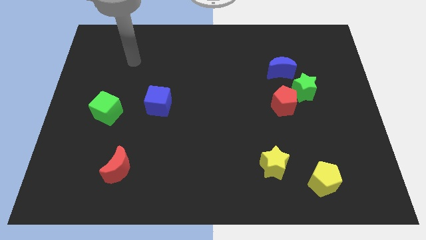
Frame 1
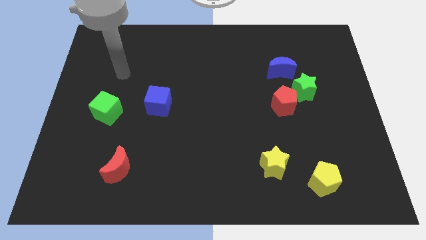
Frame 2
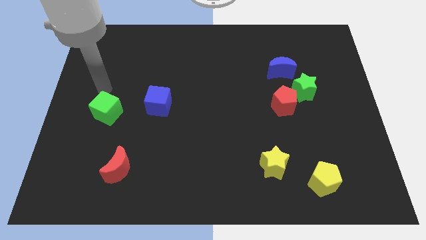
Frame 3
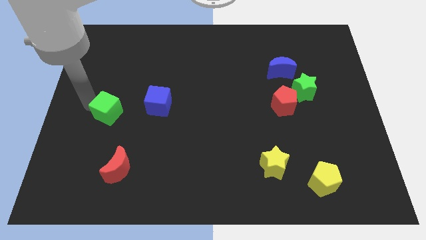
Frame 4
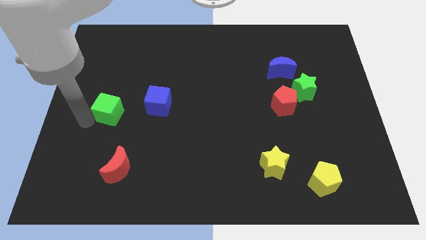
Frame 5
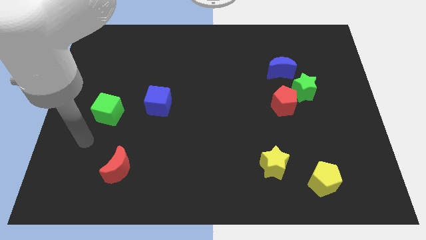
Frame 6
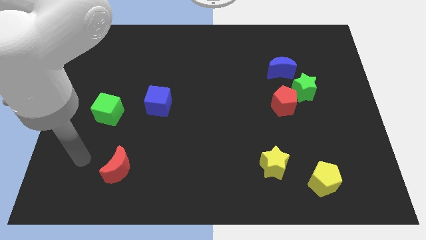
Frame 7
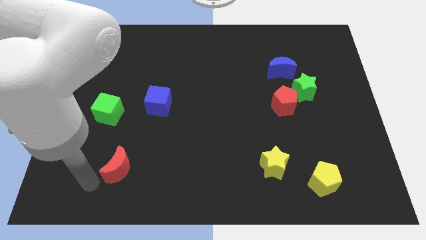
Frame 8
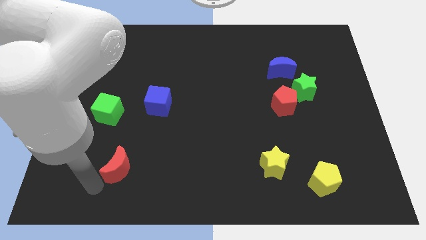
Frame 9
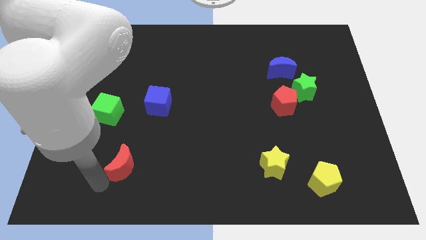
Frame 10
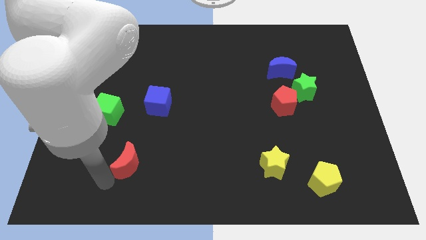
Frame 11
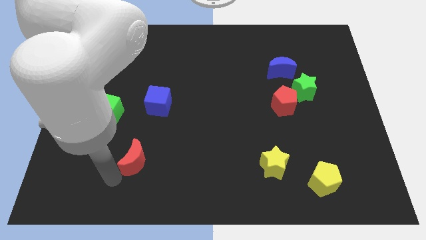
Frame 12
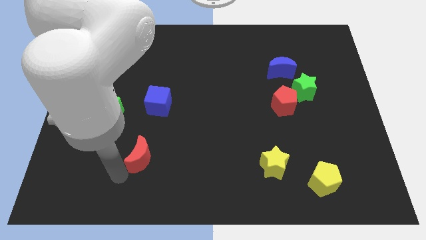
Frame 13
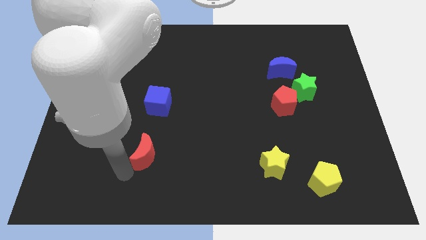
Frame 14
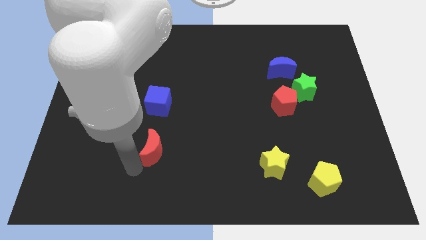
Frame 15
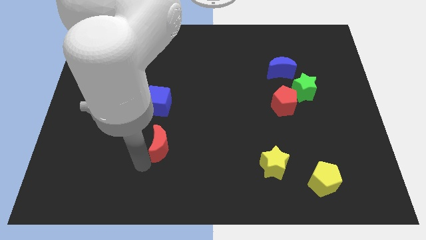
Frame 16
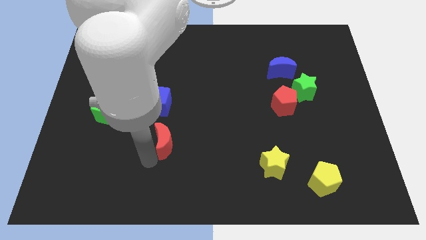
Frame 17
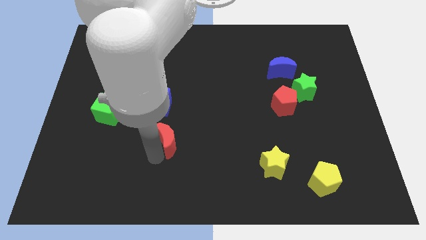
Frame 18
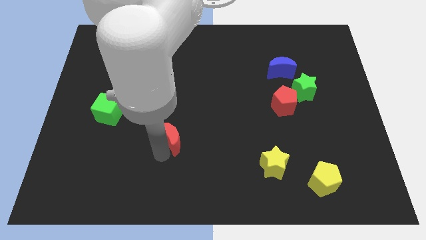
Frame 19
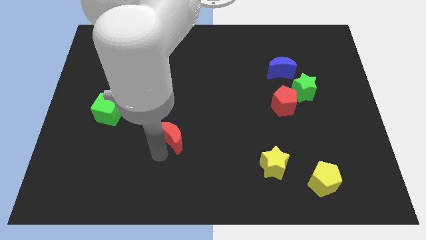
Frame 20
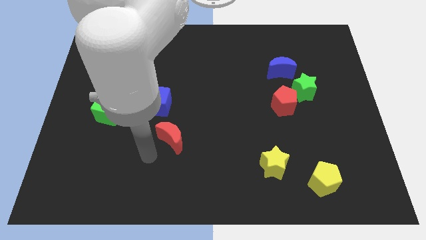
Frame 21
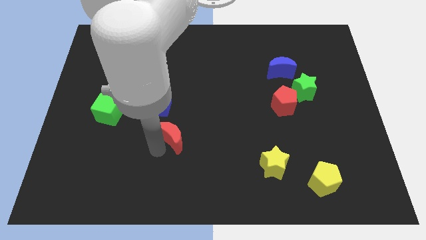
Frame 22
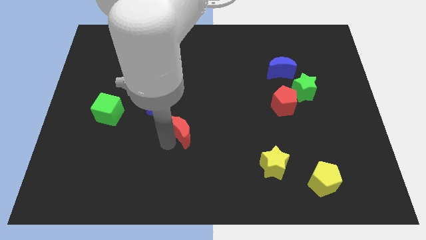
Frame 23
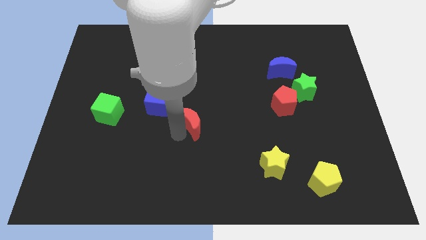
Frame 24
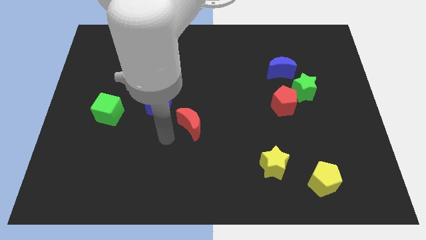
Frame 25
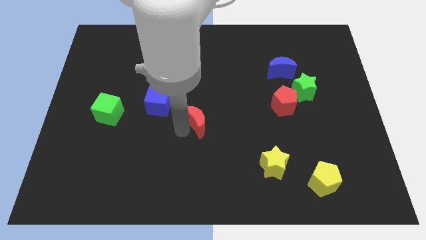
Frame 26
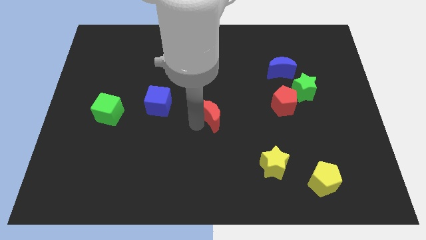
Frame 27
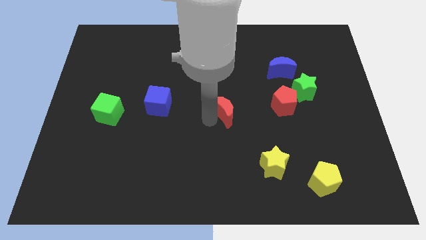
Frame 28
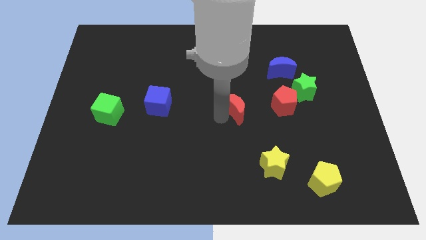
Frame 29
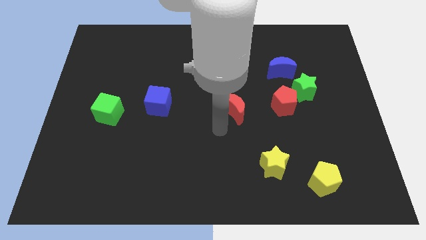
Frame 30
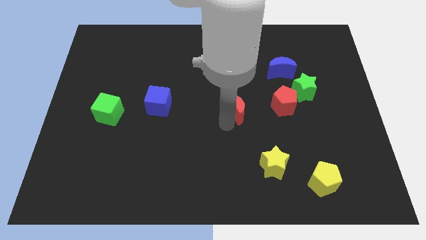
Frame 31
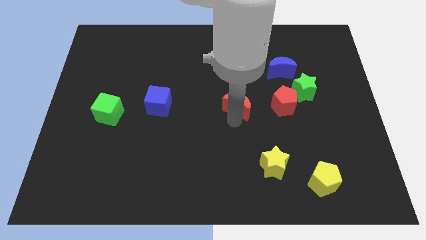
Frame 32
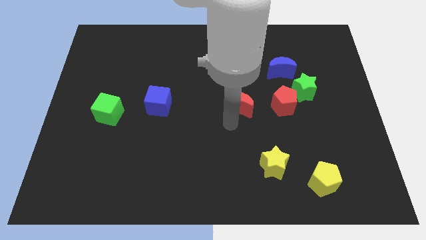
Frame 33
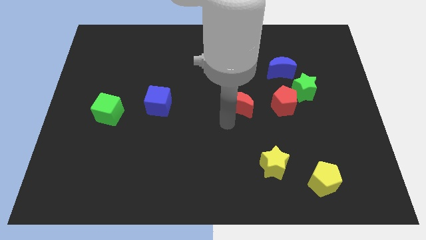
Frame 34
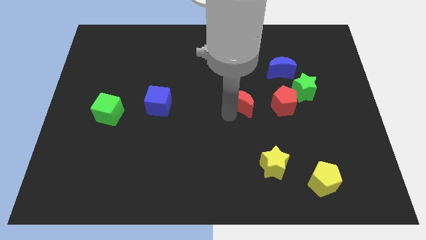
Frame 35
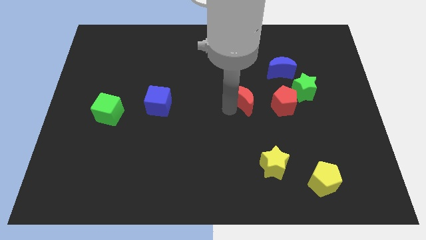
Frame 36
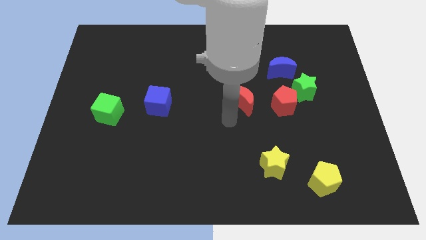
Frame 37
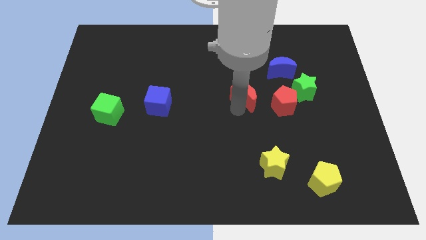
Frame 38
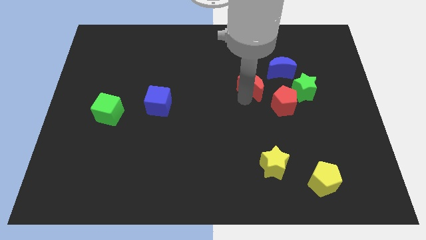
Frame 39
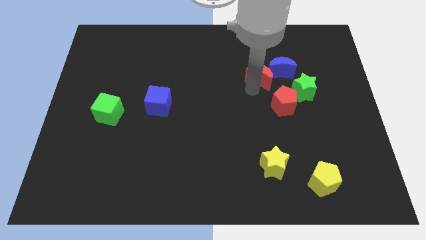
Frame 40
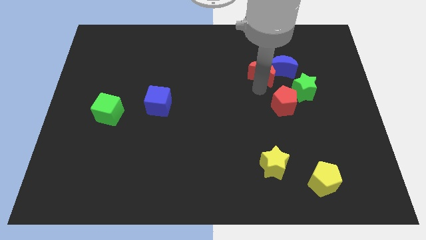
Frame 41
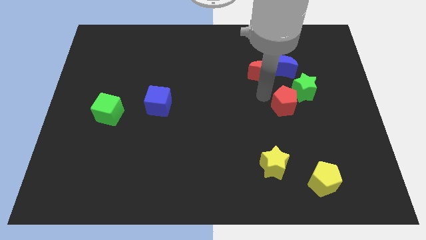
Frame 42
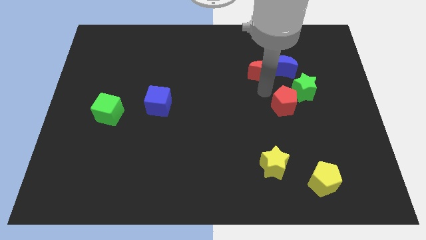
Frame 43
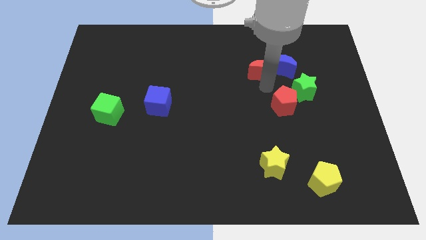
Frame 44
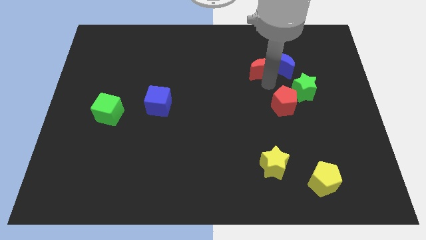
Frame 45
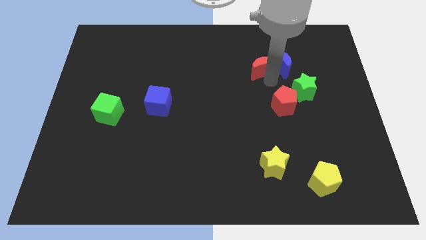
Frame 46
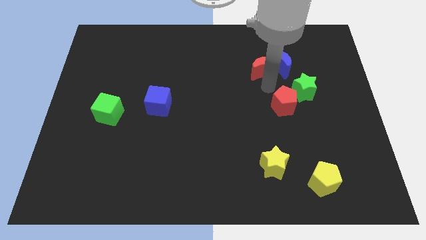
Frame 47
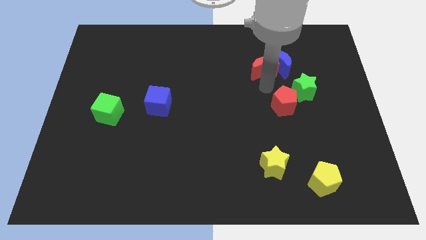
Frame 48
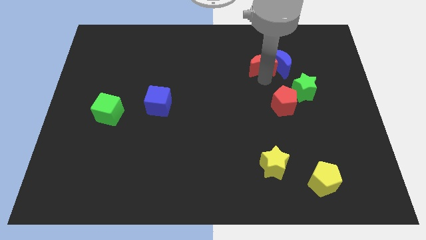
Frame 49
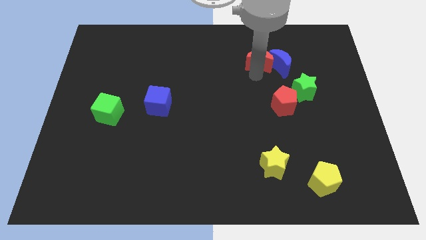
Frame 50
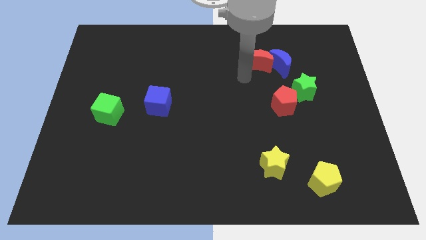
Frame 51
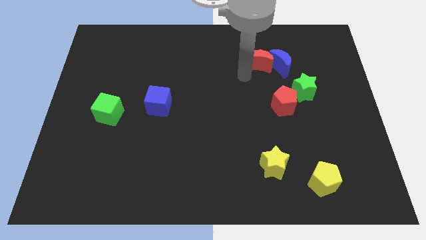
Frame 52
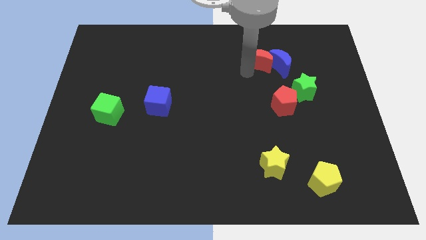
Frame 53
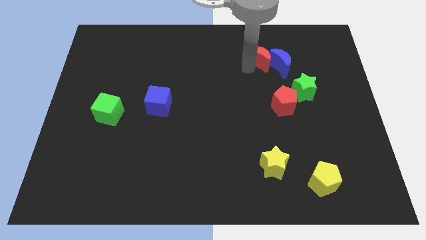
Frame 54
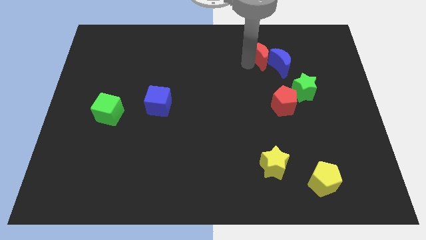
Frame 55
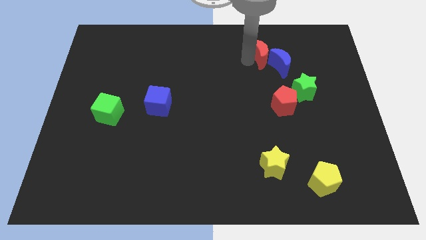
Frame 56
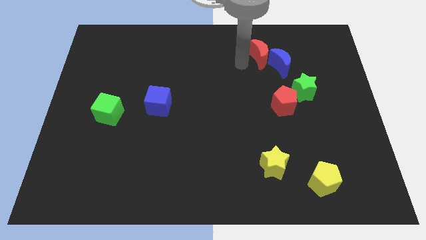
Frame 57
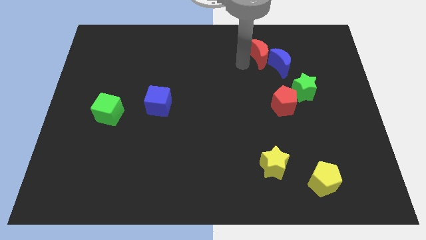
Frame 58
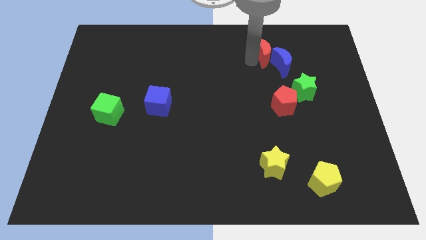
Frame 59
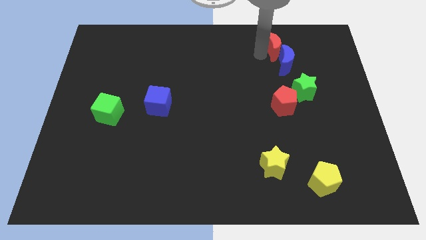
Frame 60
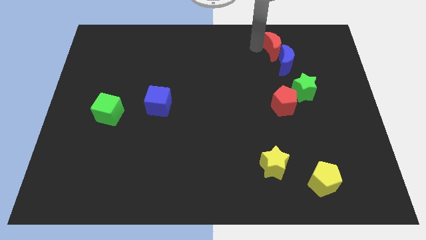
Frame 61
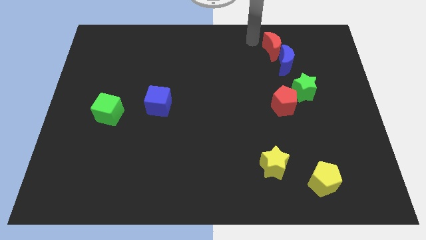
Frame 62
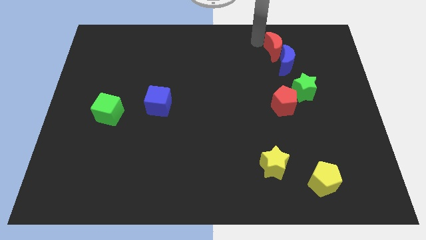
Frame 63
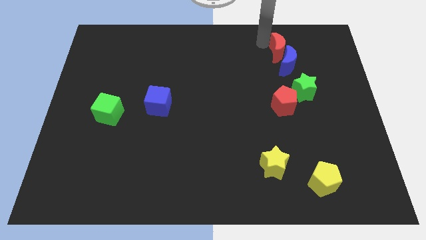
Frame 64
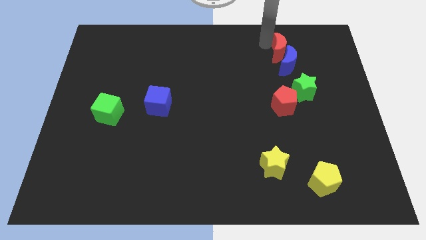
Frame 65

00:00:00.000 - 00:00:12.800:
slide the red moon to the top side of the green star

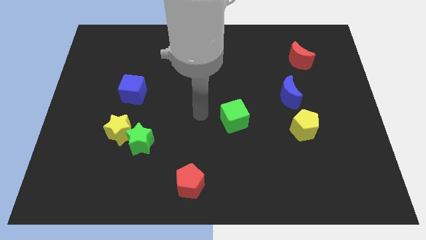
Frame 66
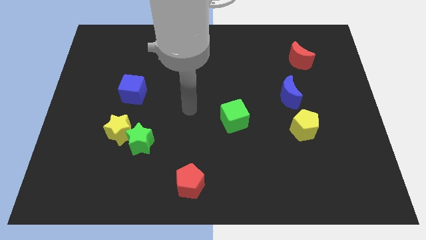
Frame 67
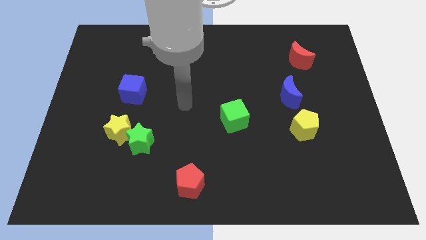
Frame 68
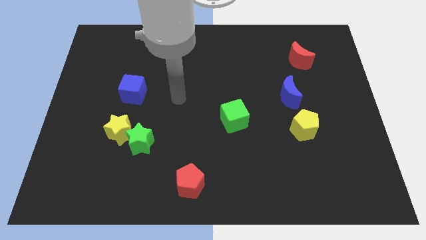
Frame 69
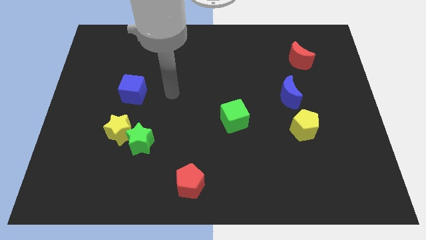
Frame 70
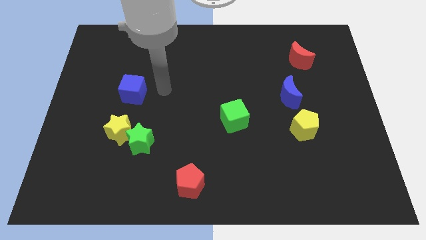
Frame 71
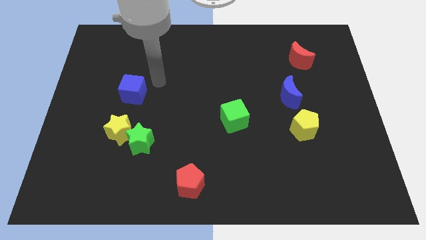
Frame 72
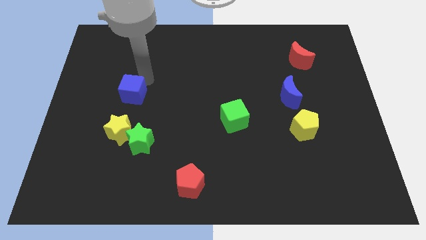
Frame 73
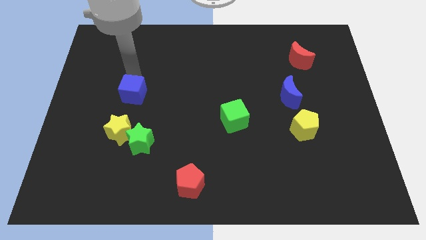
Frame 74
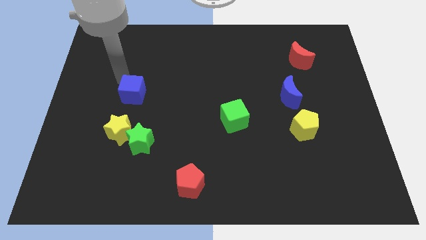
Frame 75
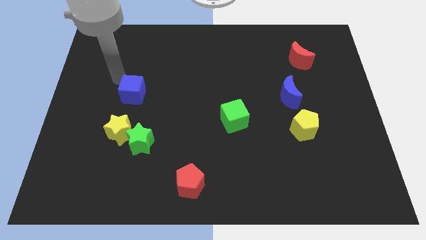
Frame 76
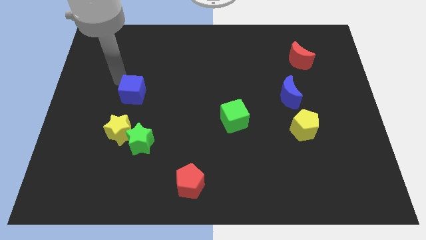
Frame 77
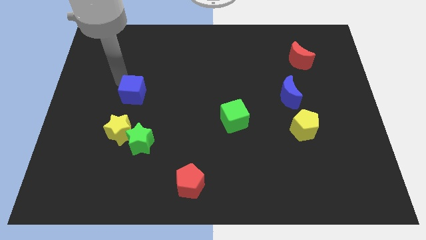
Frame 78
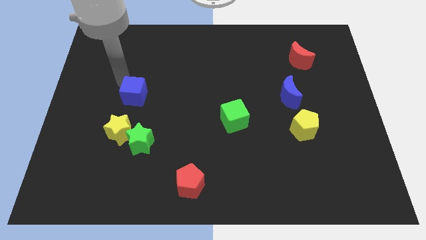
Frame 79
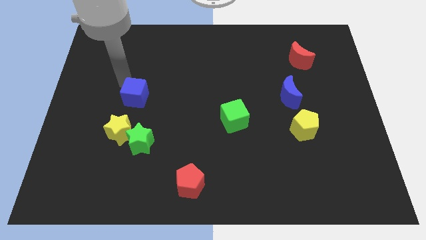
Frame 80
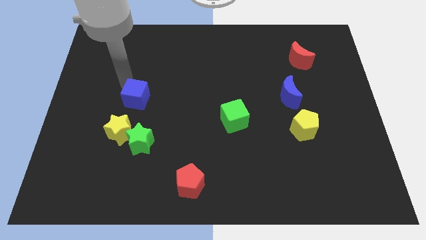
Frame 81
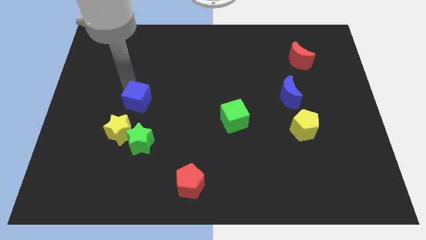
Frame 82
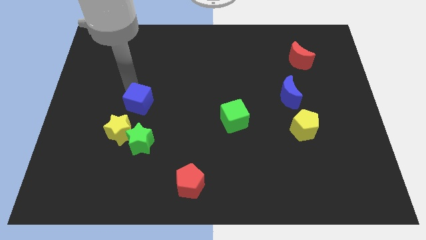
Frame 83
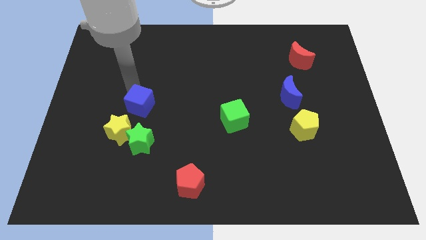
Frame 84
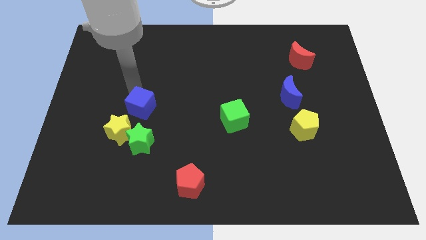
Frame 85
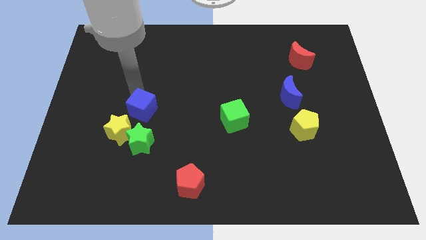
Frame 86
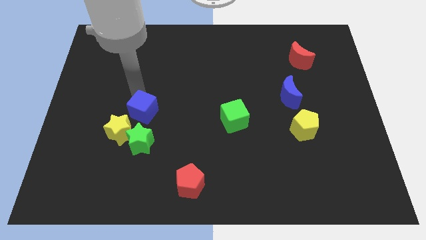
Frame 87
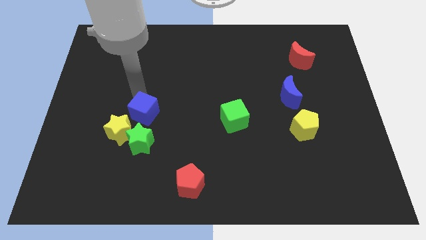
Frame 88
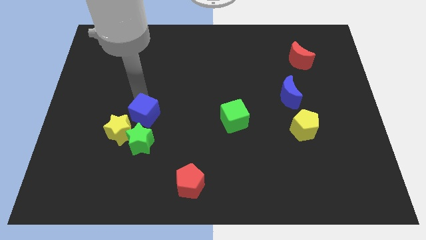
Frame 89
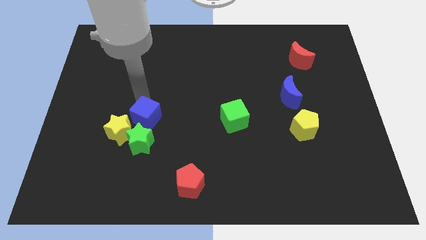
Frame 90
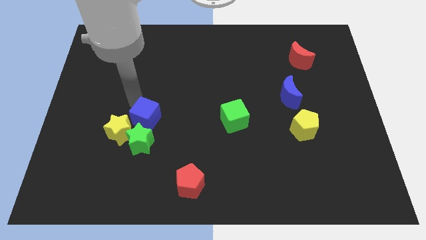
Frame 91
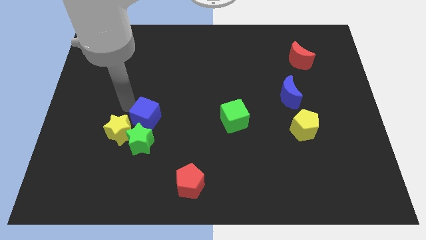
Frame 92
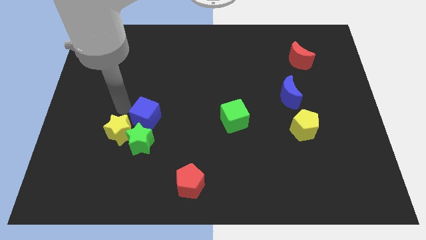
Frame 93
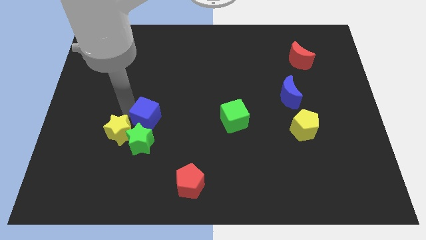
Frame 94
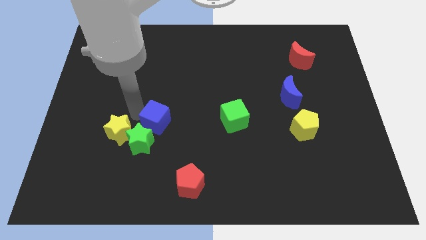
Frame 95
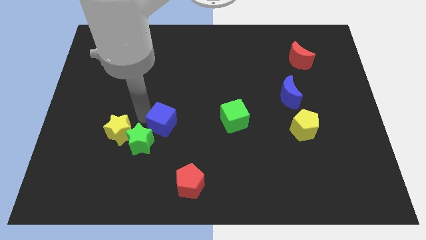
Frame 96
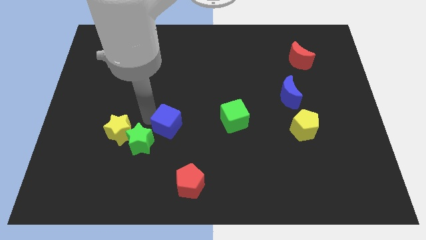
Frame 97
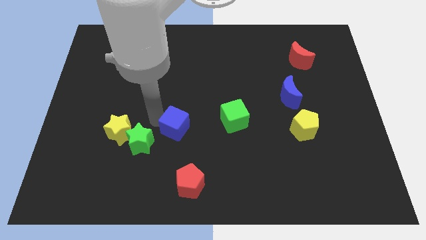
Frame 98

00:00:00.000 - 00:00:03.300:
move the blue cube to the top side of the red pentagon
